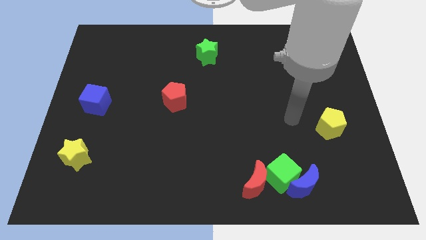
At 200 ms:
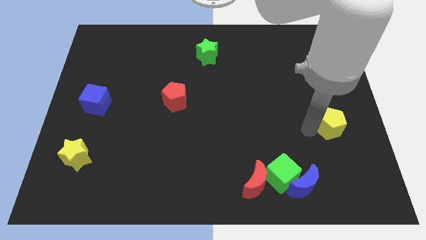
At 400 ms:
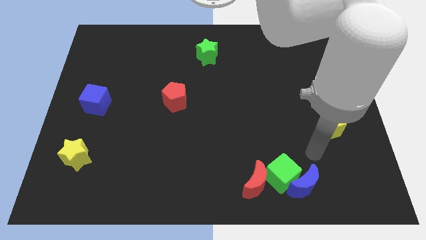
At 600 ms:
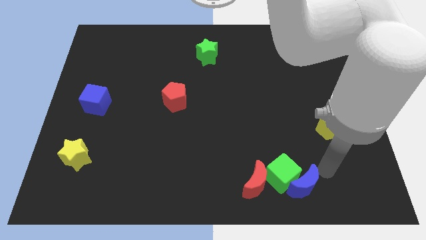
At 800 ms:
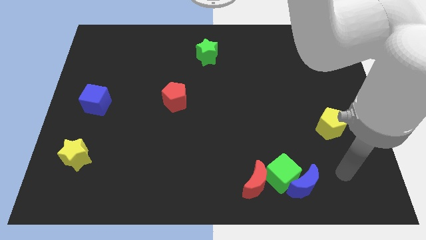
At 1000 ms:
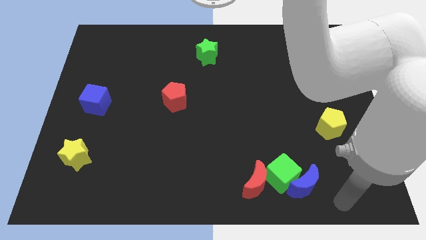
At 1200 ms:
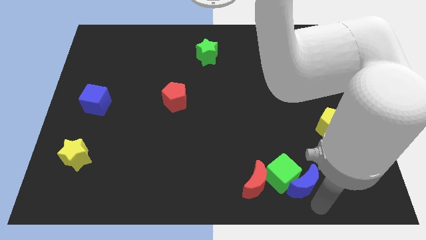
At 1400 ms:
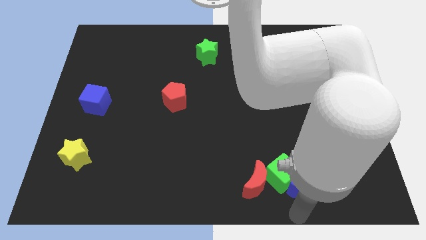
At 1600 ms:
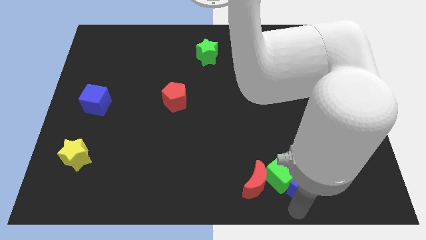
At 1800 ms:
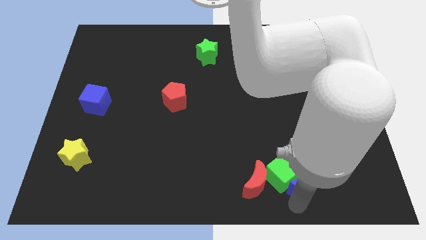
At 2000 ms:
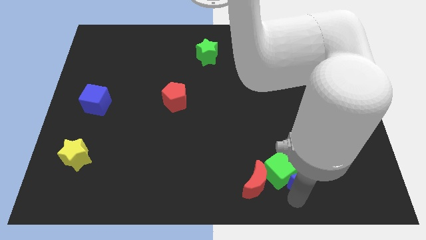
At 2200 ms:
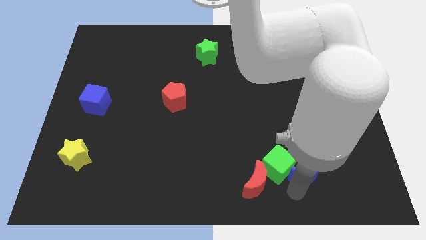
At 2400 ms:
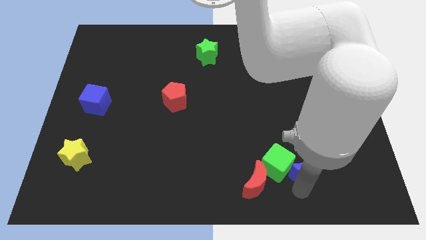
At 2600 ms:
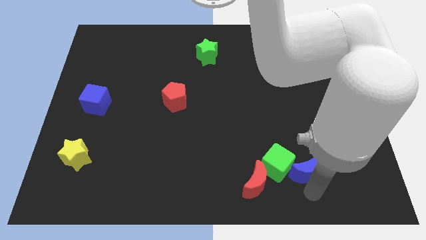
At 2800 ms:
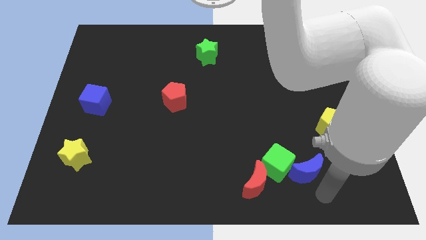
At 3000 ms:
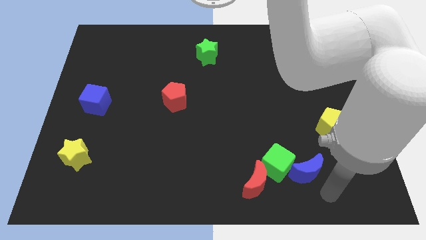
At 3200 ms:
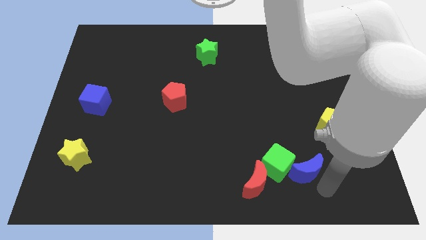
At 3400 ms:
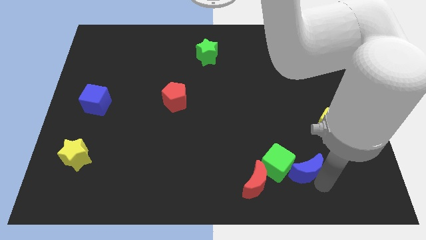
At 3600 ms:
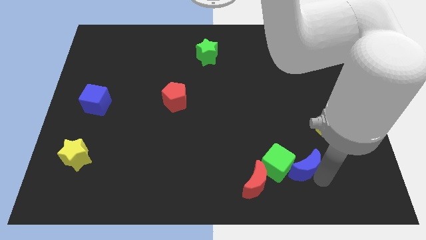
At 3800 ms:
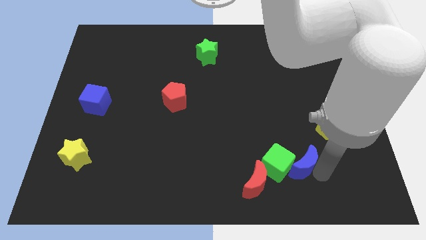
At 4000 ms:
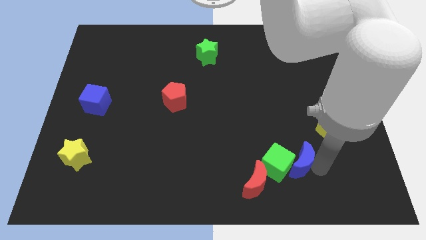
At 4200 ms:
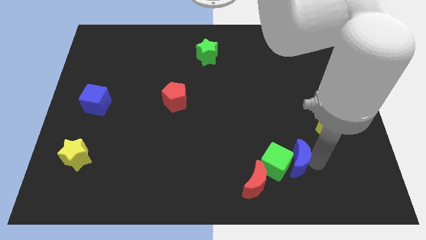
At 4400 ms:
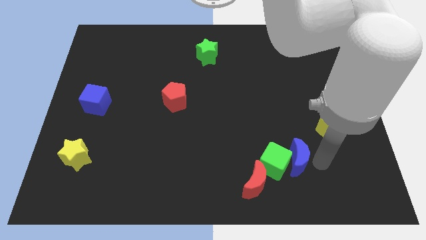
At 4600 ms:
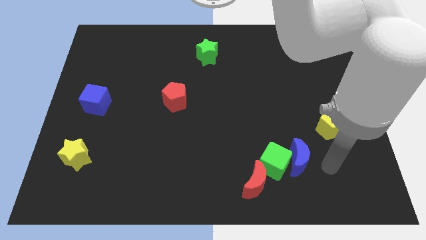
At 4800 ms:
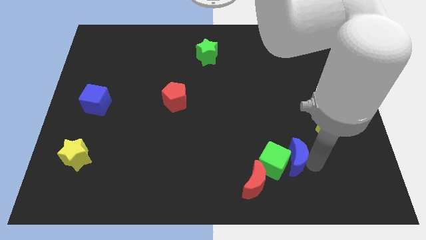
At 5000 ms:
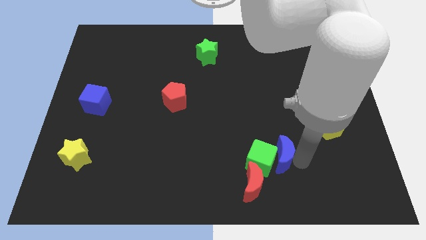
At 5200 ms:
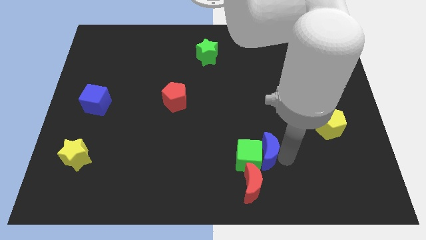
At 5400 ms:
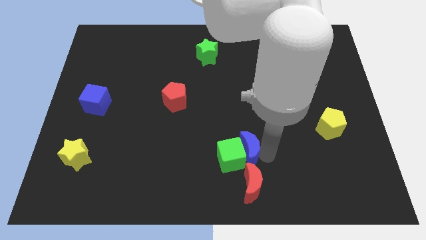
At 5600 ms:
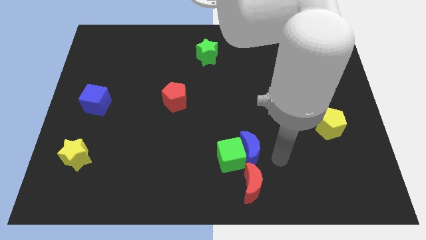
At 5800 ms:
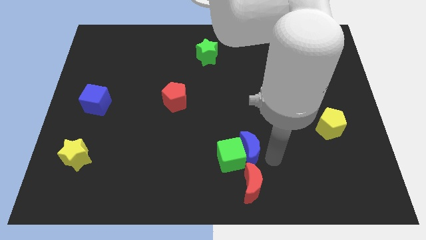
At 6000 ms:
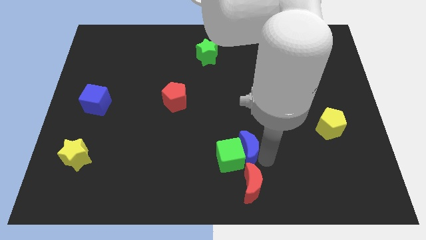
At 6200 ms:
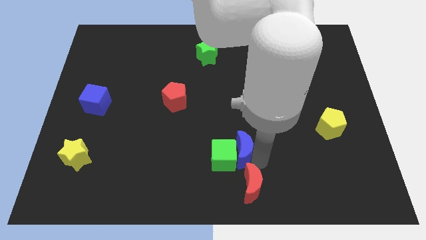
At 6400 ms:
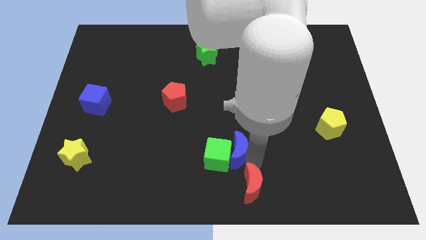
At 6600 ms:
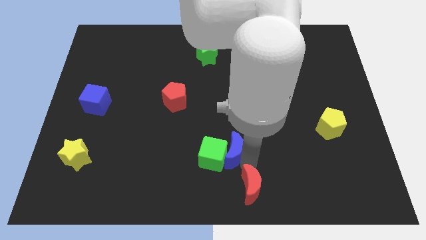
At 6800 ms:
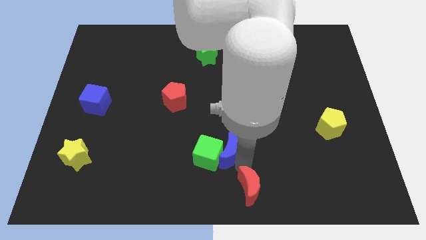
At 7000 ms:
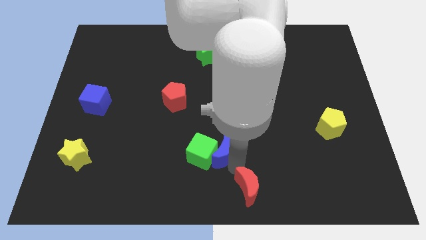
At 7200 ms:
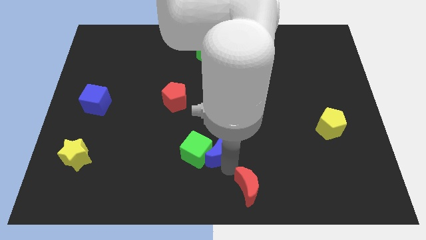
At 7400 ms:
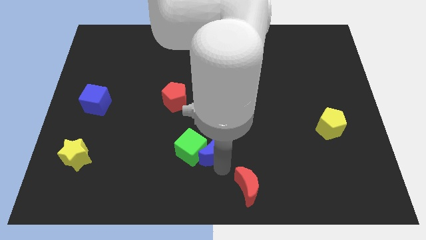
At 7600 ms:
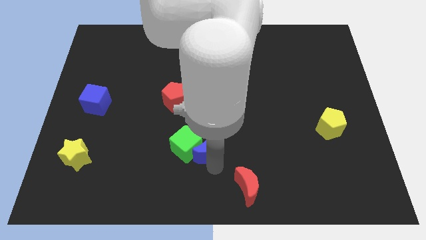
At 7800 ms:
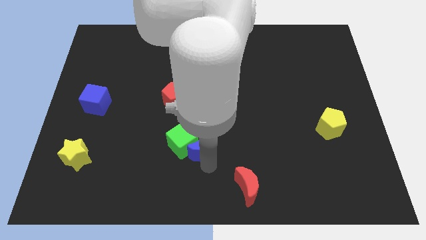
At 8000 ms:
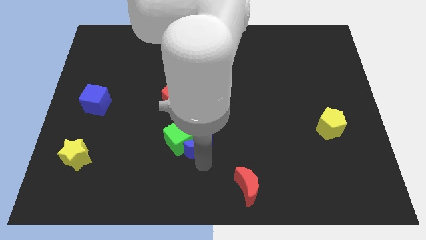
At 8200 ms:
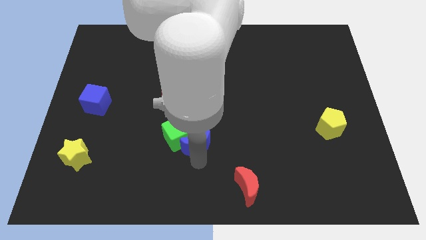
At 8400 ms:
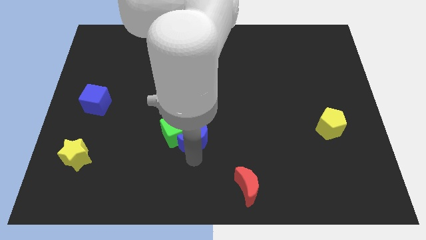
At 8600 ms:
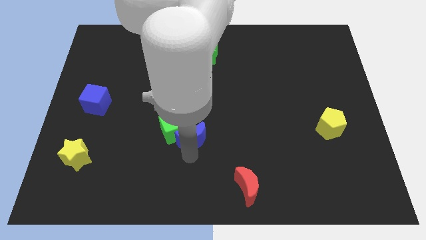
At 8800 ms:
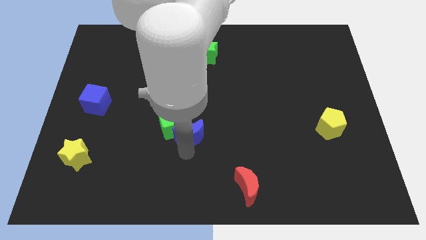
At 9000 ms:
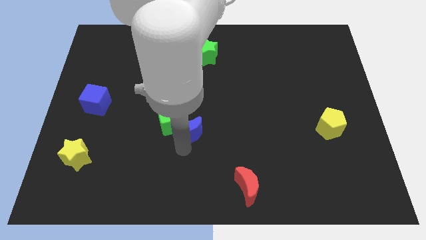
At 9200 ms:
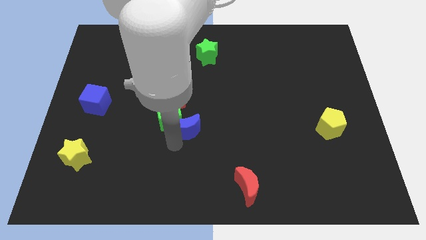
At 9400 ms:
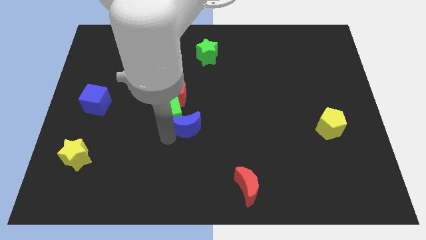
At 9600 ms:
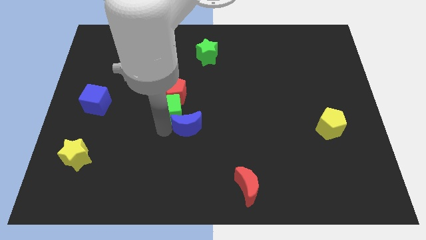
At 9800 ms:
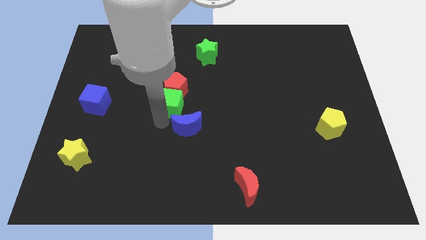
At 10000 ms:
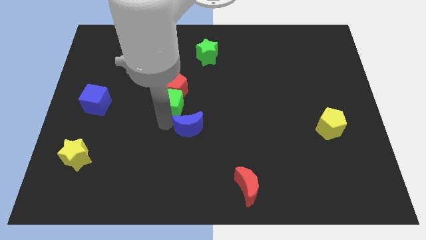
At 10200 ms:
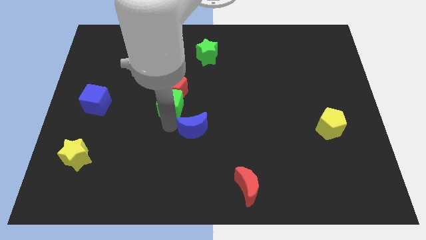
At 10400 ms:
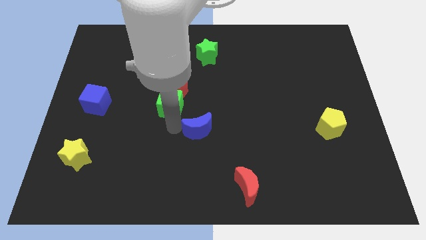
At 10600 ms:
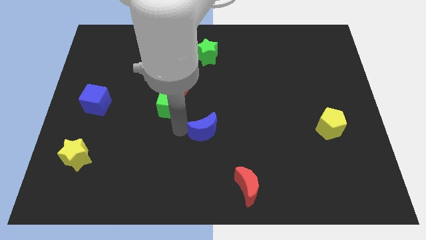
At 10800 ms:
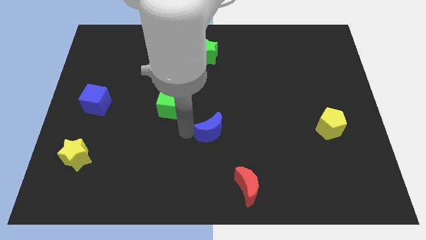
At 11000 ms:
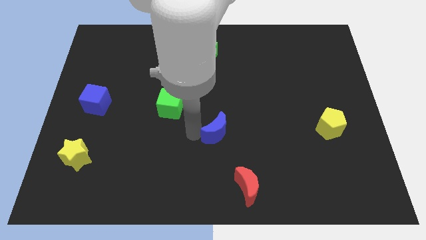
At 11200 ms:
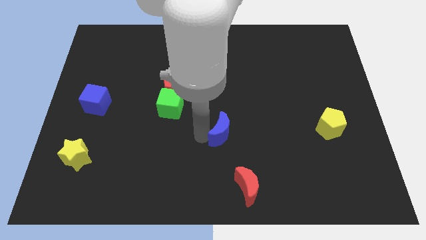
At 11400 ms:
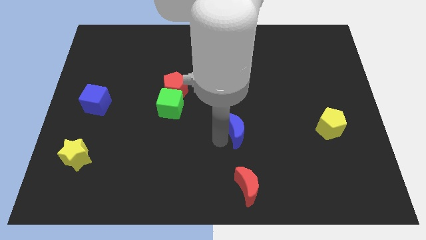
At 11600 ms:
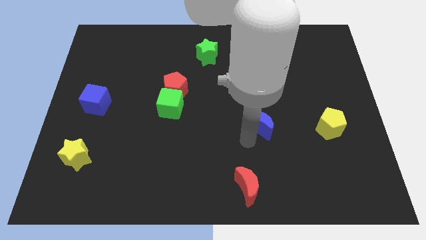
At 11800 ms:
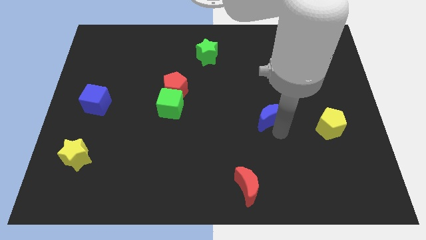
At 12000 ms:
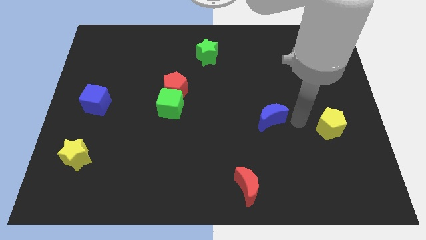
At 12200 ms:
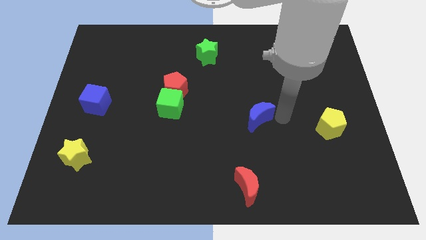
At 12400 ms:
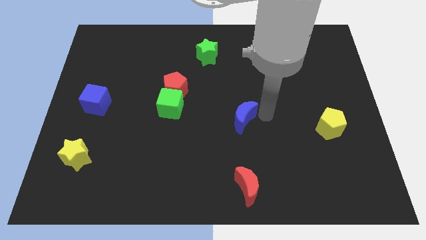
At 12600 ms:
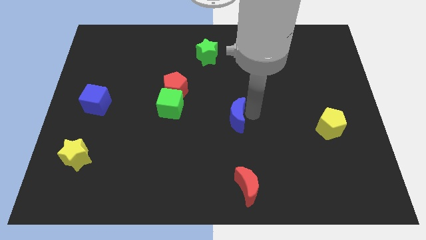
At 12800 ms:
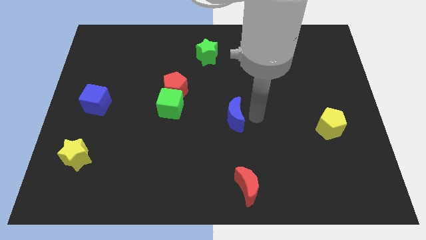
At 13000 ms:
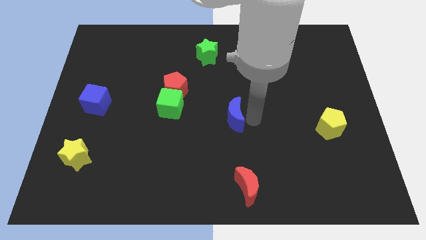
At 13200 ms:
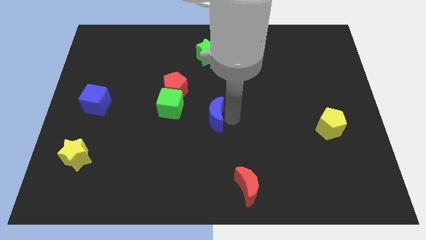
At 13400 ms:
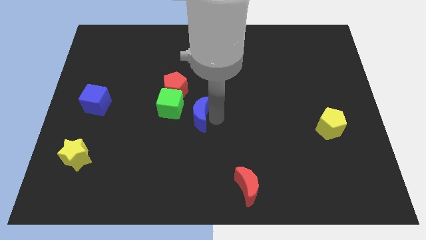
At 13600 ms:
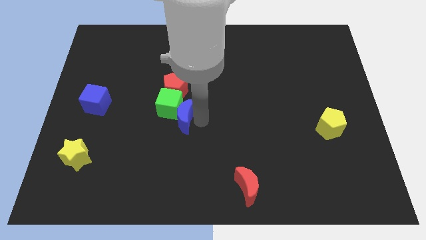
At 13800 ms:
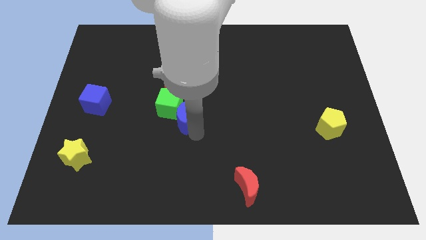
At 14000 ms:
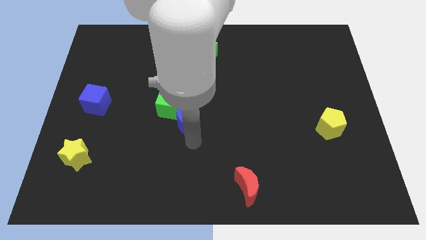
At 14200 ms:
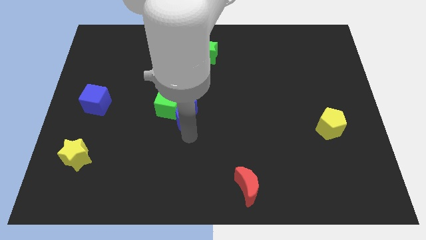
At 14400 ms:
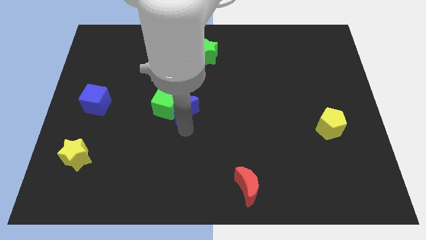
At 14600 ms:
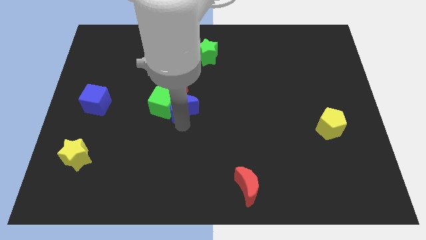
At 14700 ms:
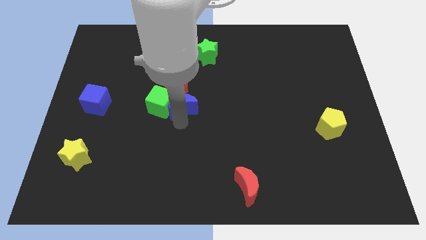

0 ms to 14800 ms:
slide the blue moon to the red pentagon
